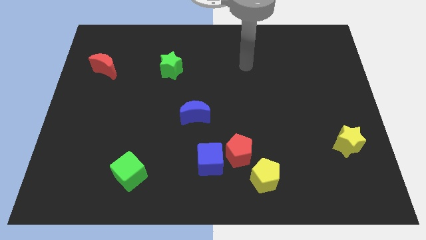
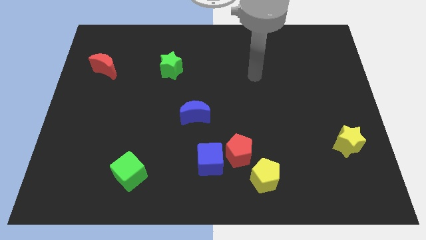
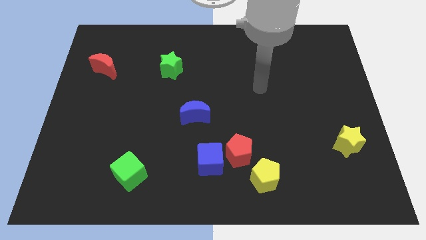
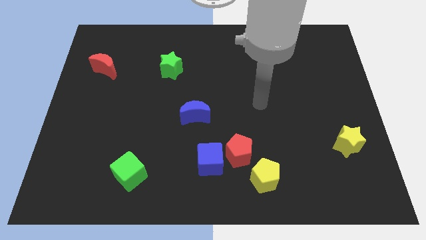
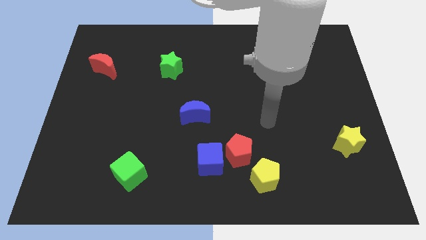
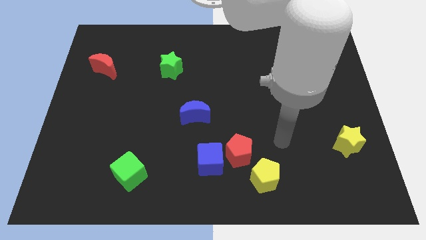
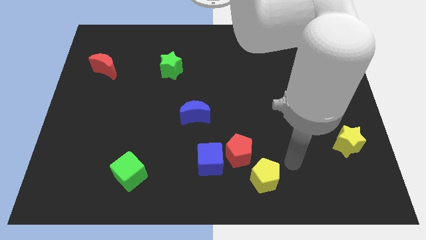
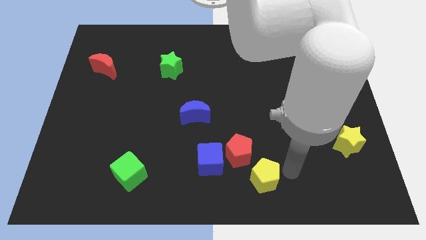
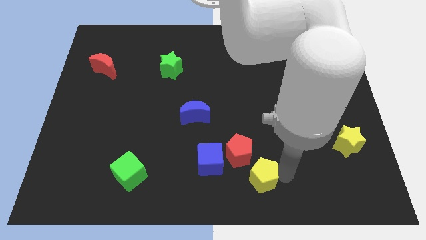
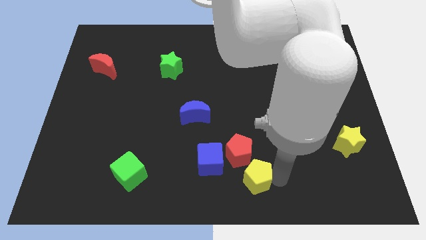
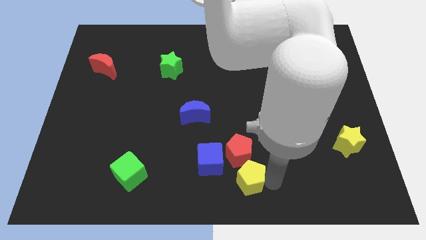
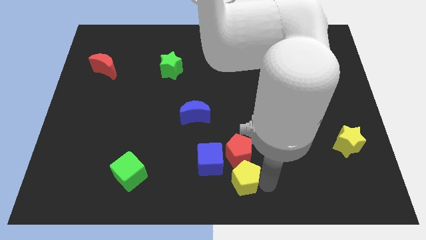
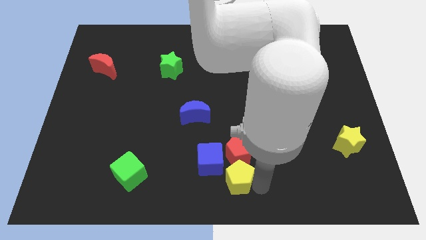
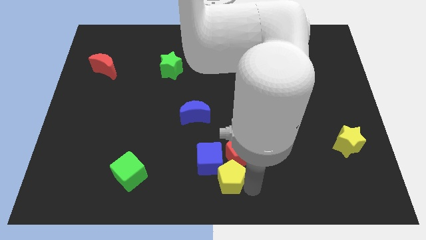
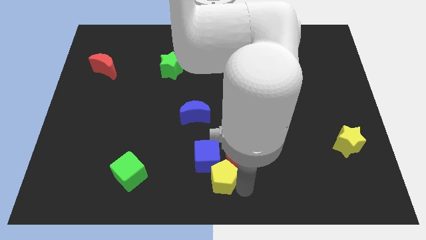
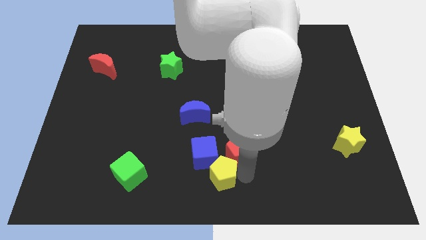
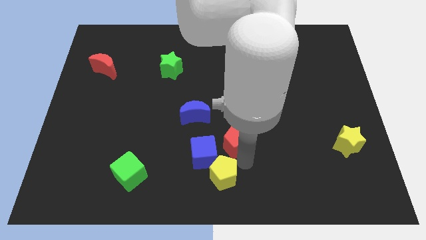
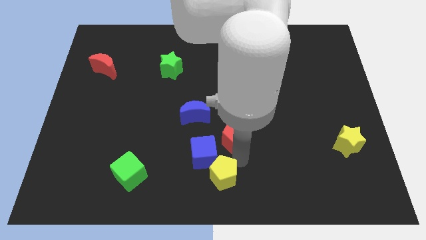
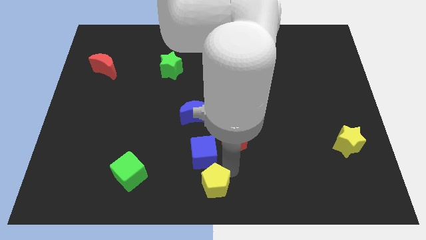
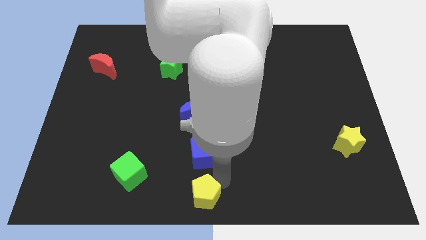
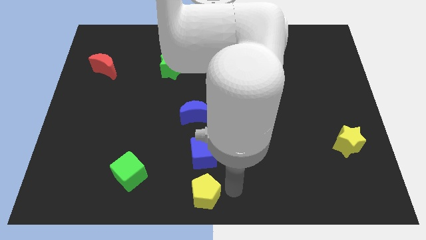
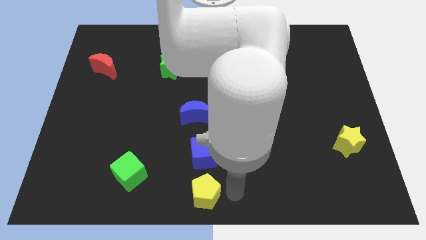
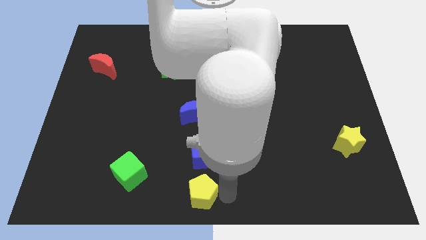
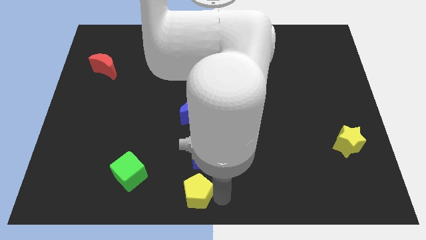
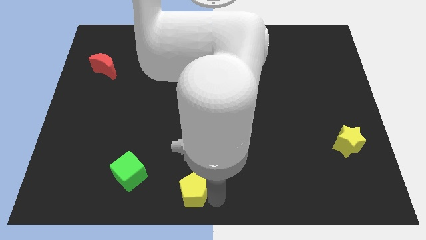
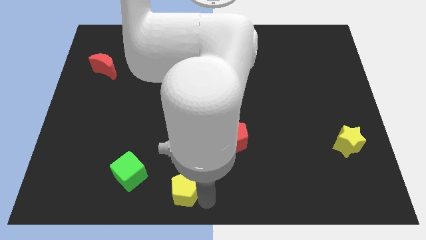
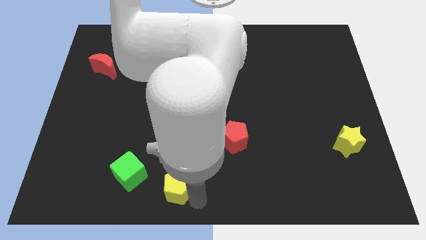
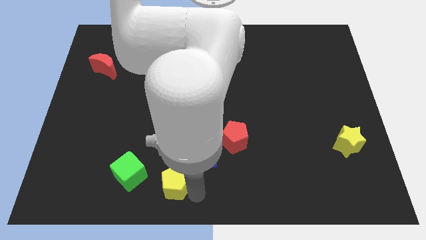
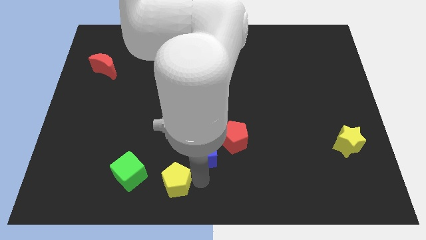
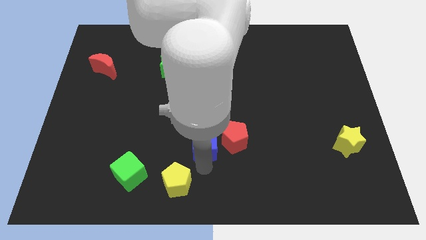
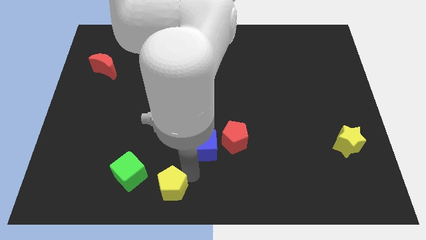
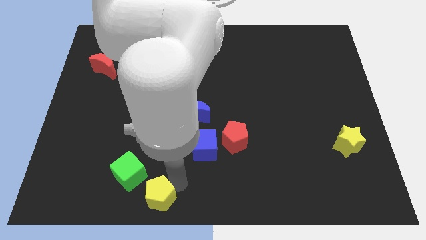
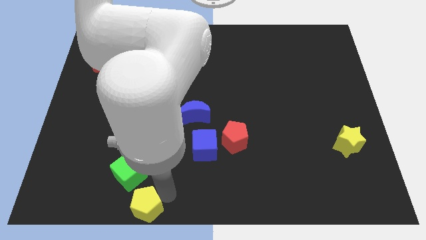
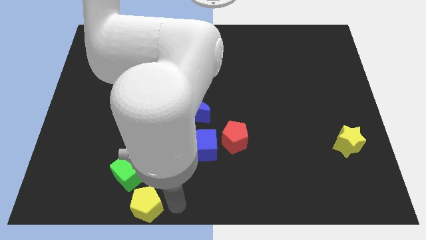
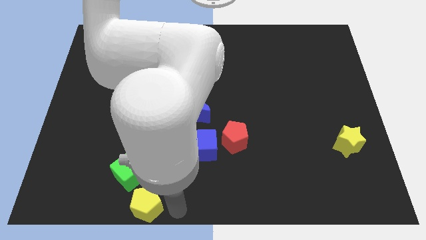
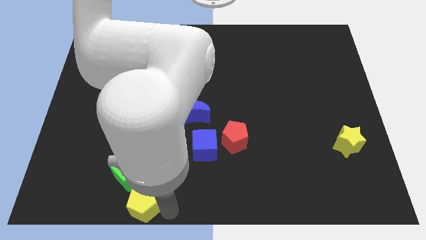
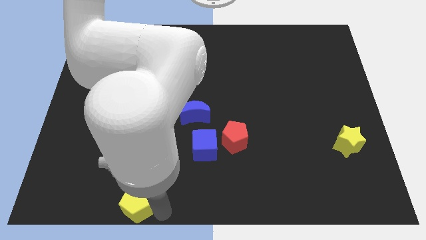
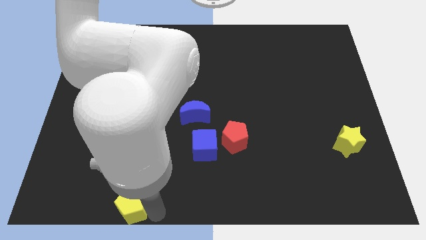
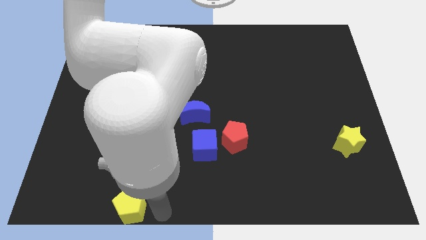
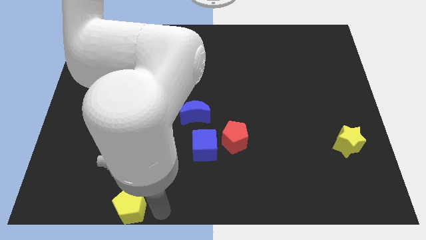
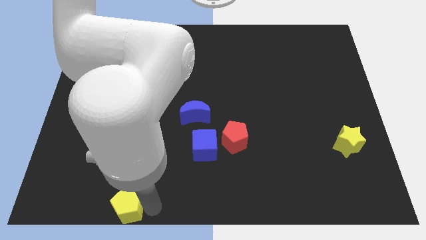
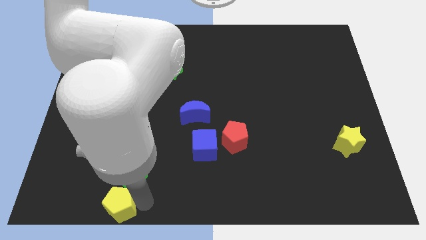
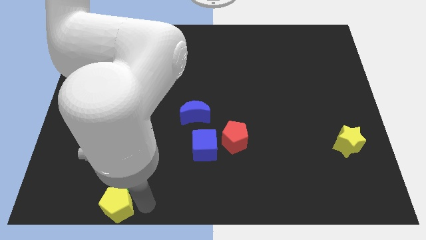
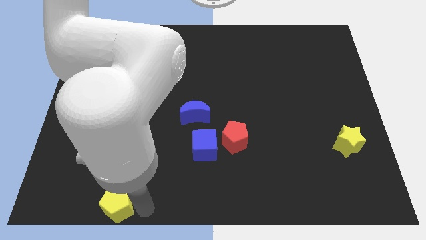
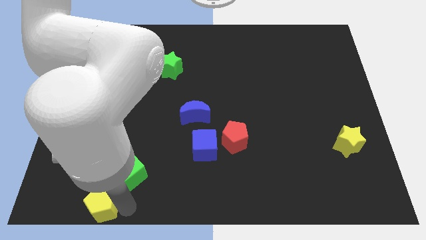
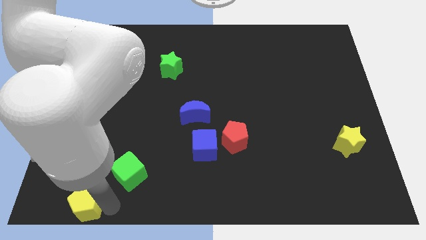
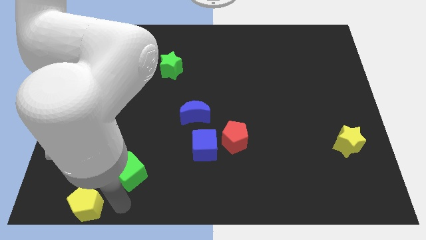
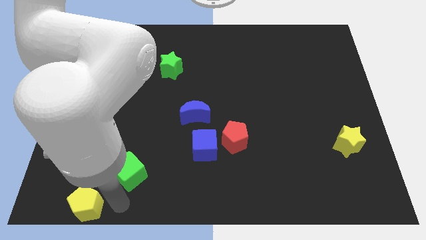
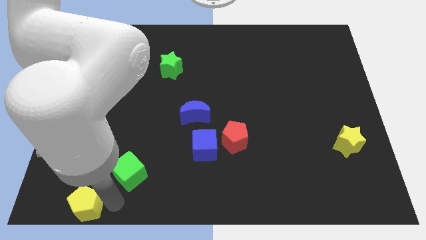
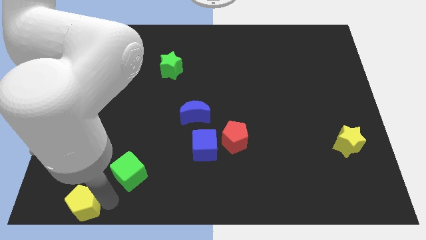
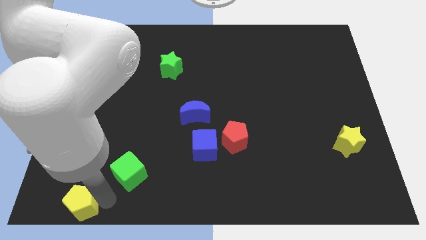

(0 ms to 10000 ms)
slide the yellow pentagon to the lower left corner

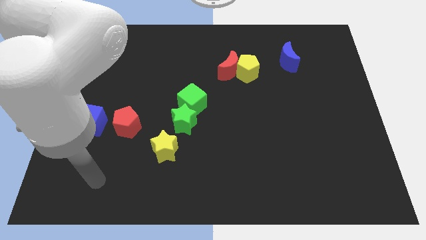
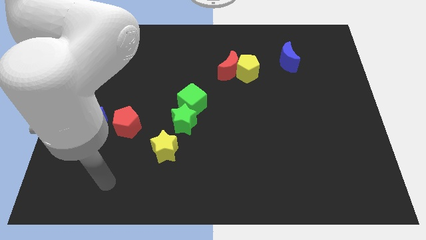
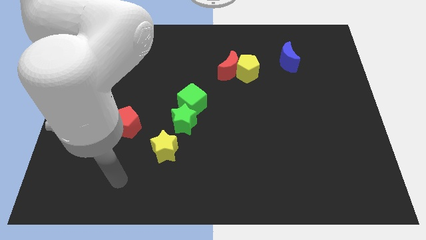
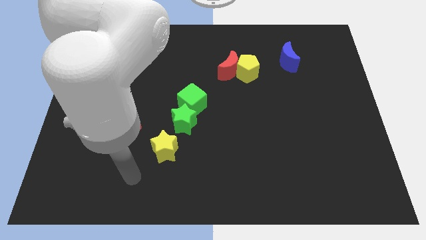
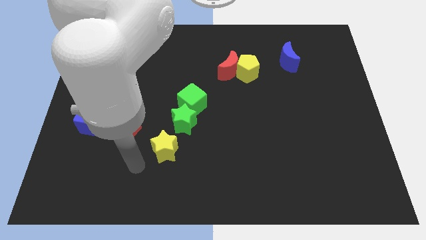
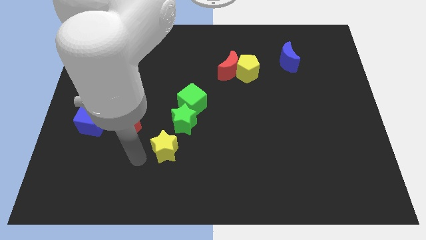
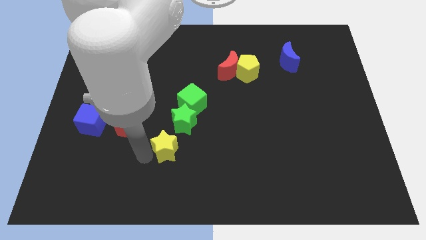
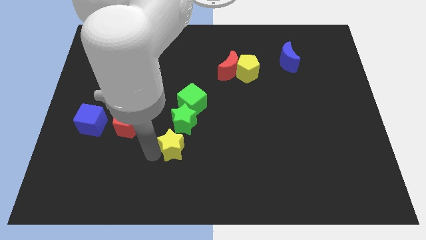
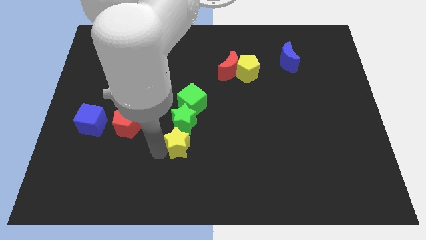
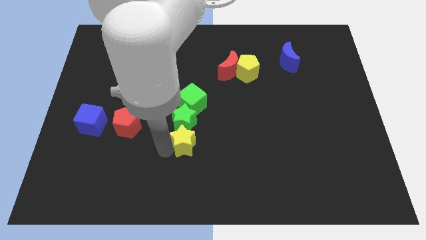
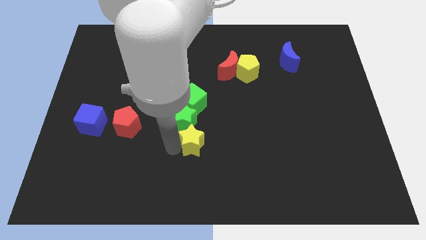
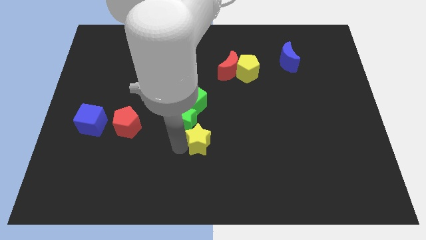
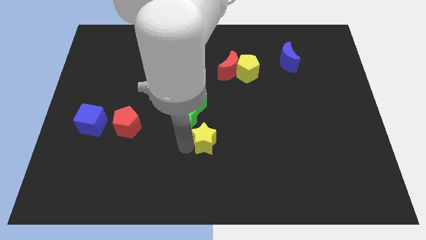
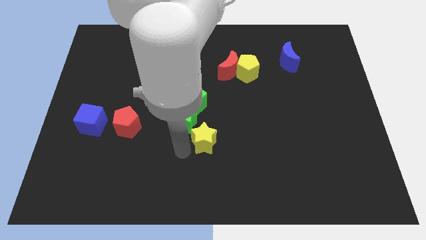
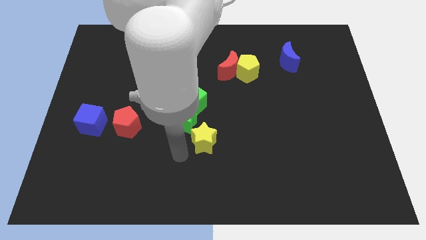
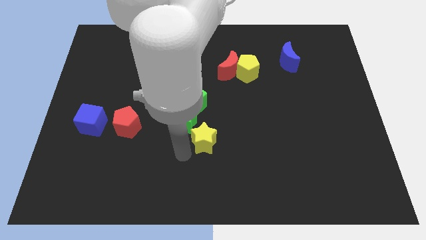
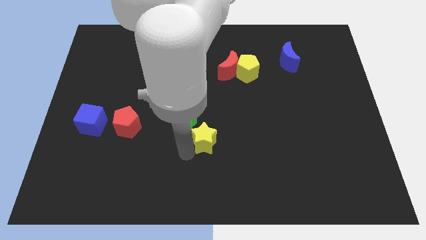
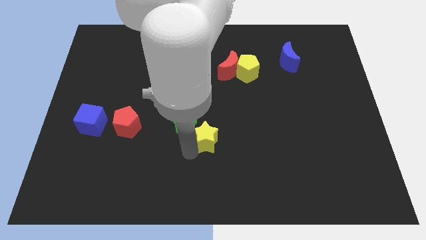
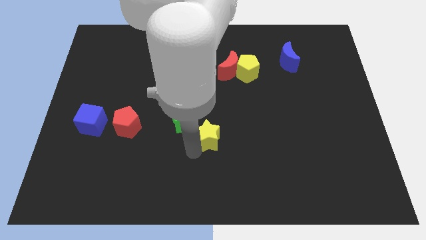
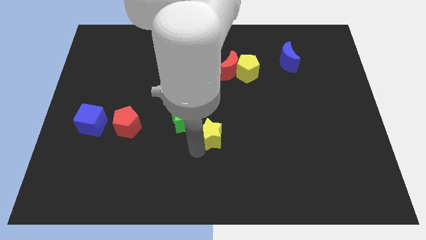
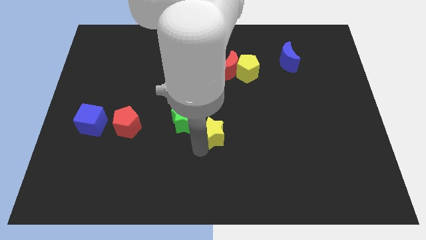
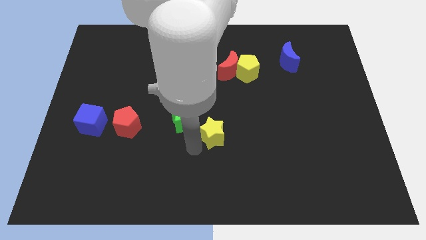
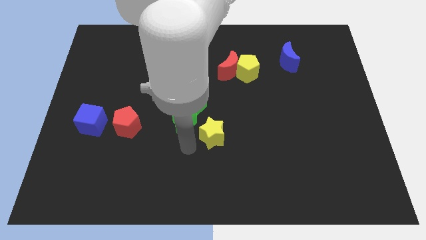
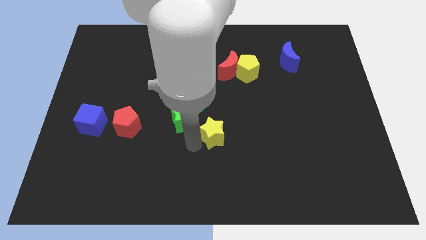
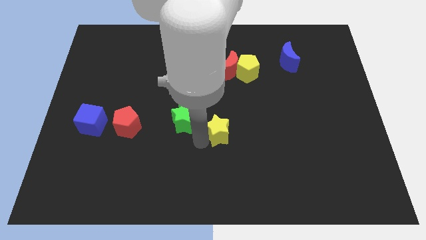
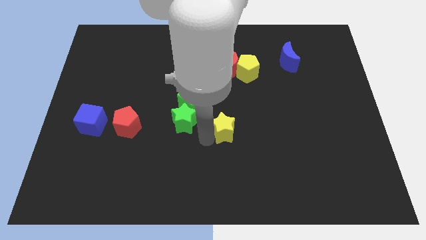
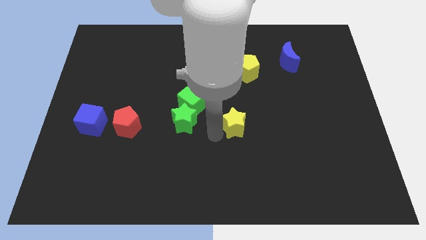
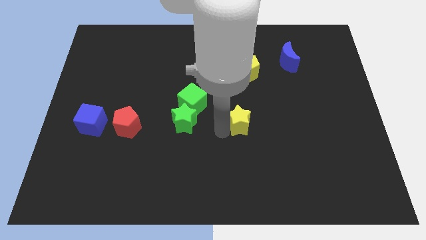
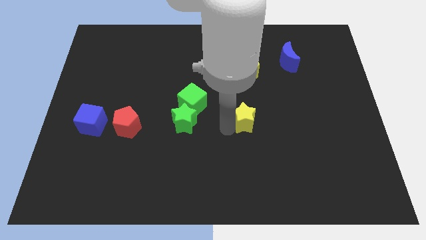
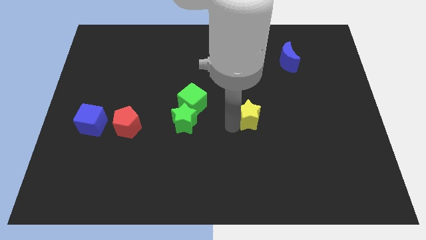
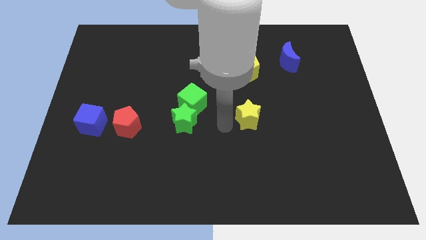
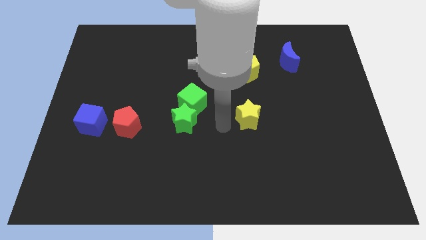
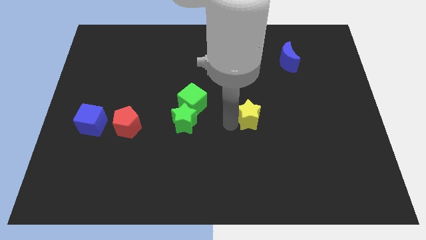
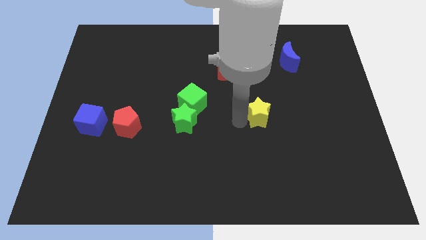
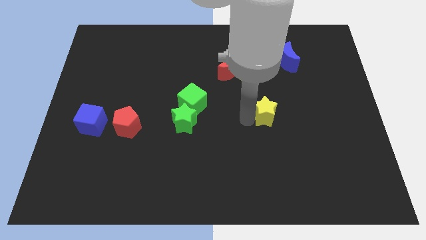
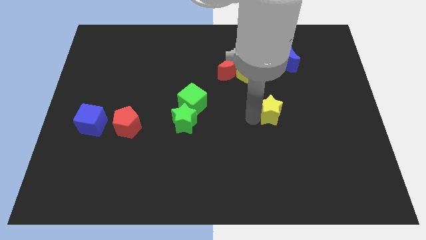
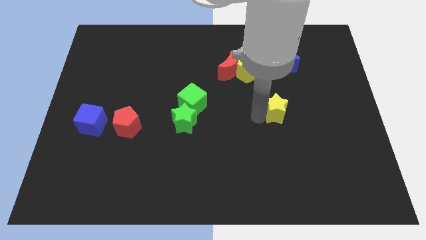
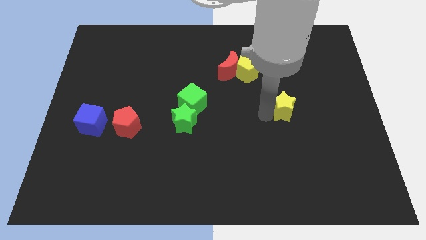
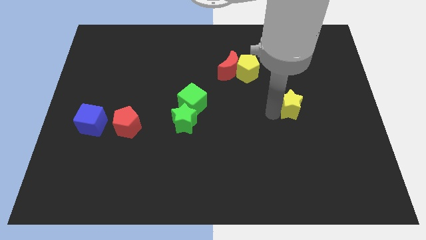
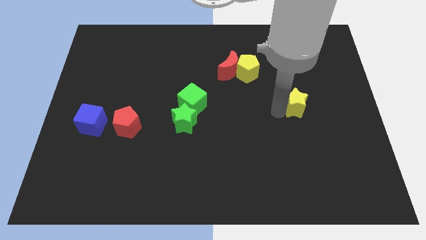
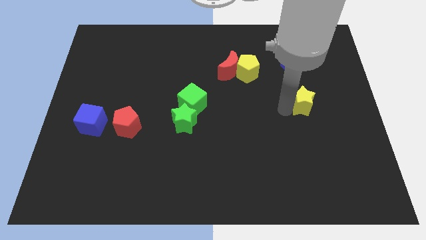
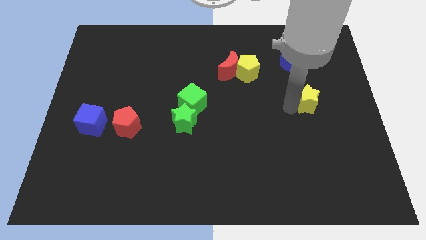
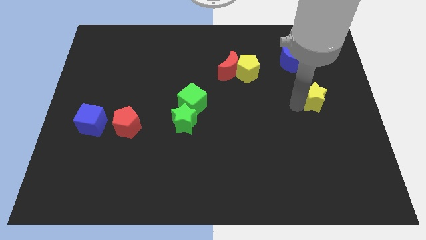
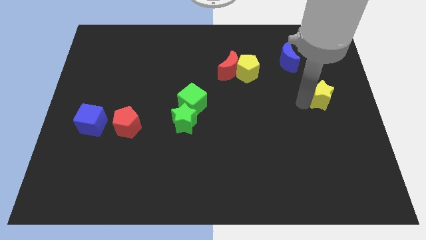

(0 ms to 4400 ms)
slide the yellow star to the right side of the board
